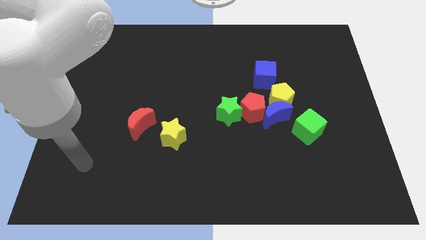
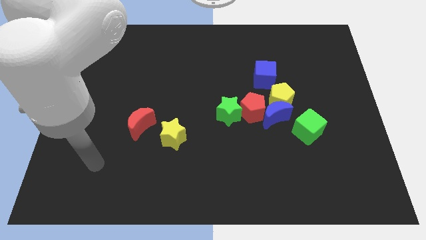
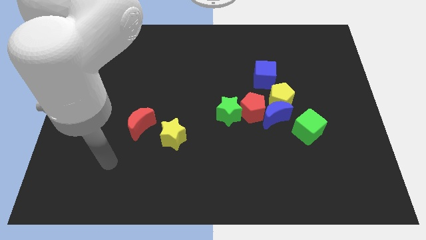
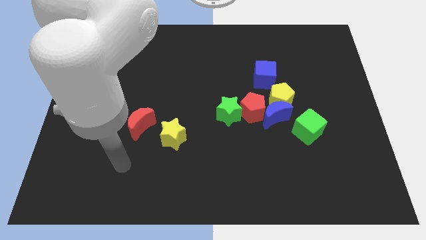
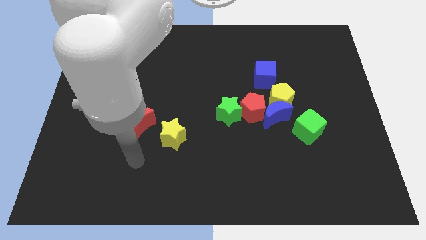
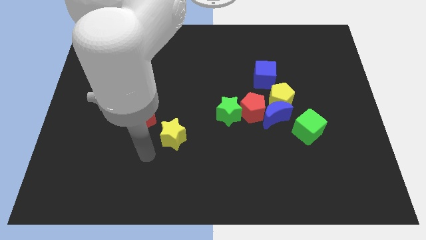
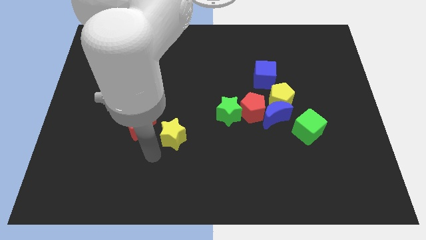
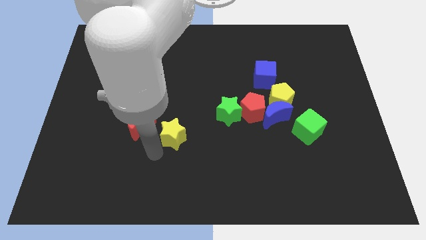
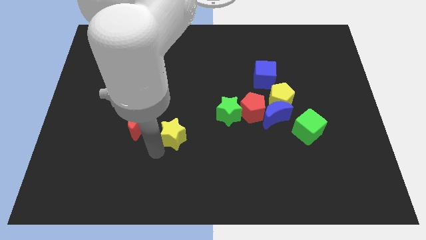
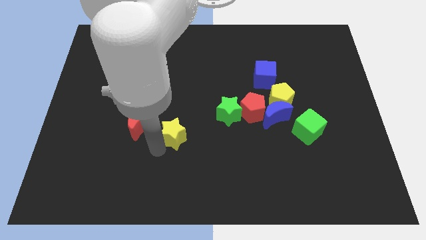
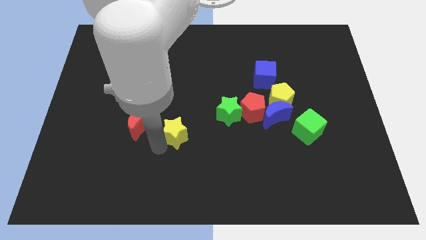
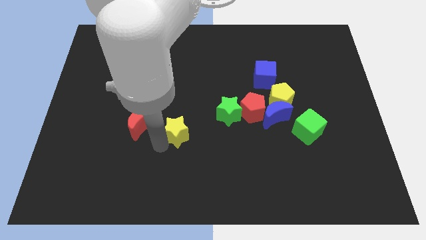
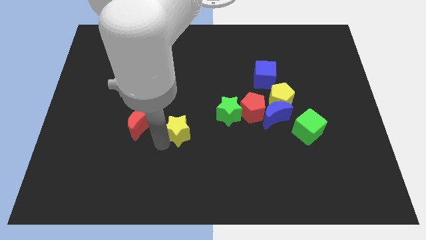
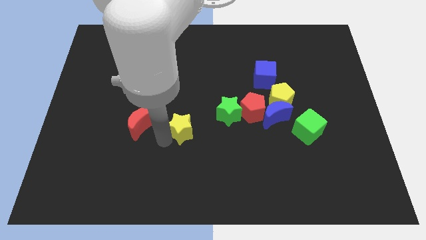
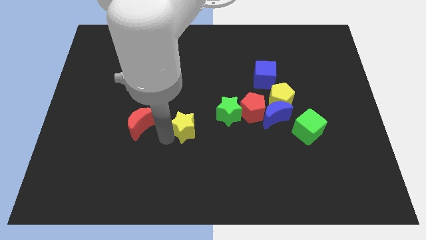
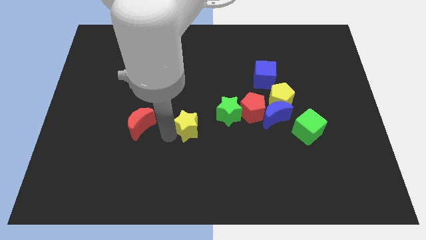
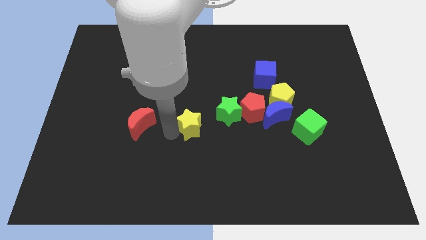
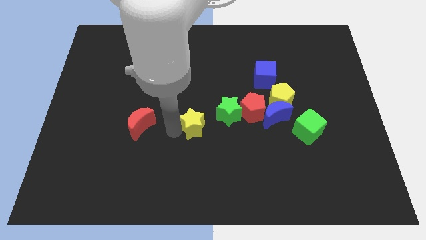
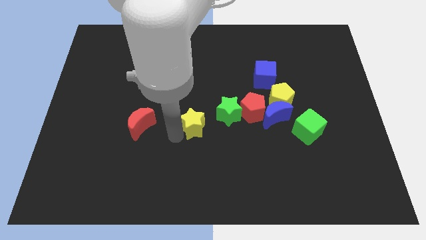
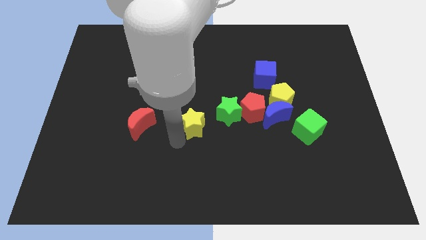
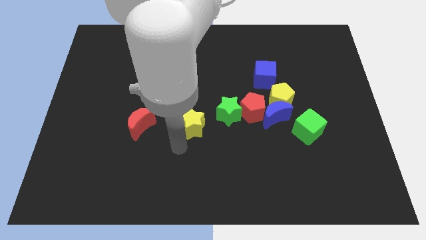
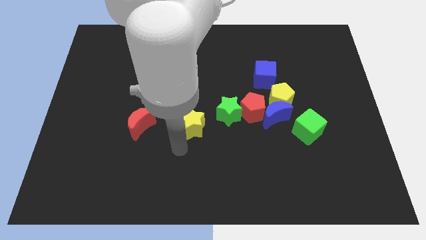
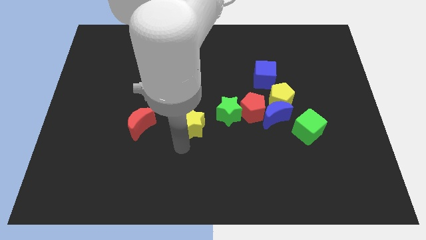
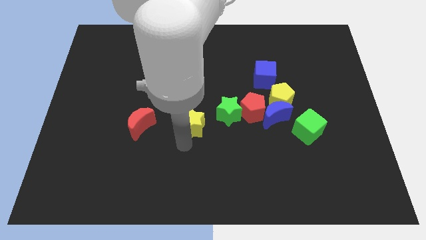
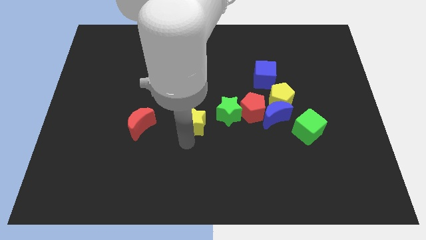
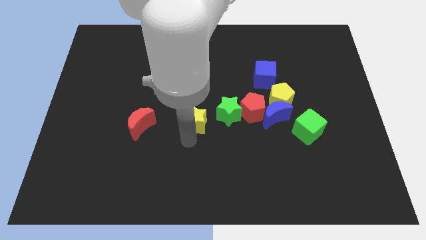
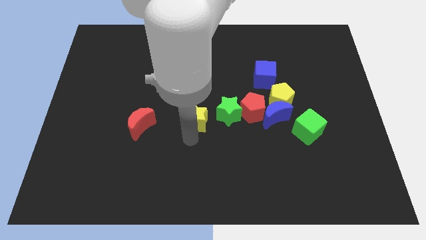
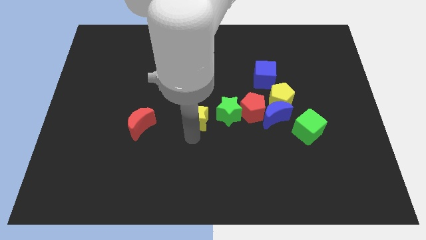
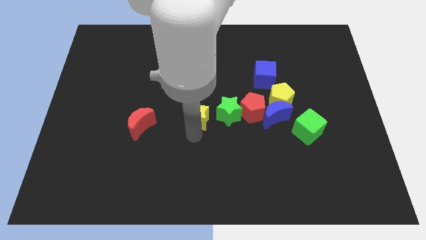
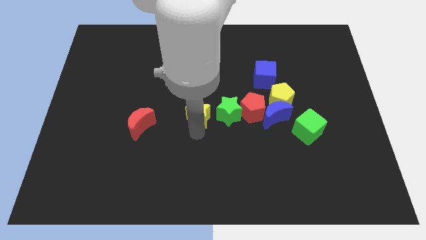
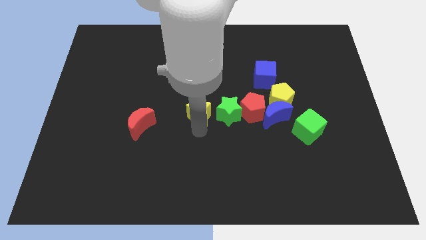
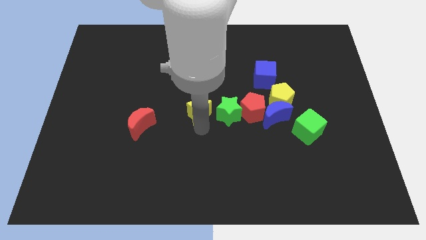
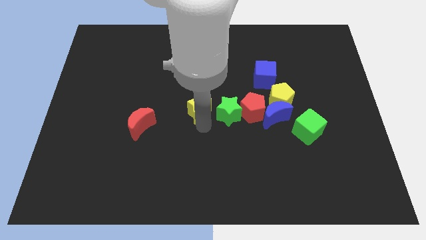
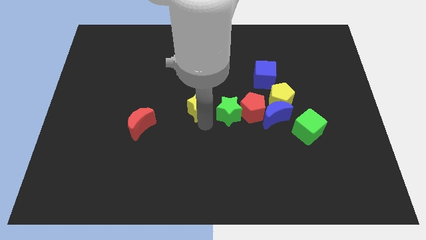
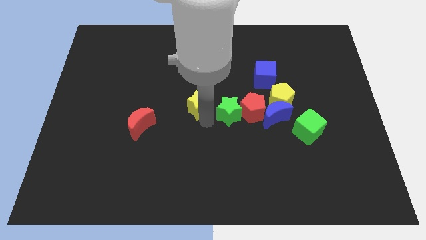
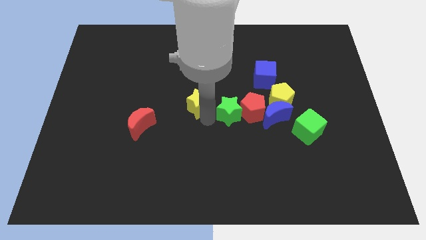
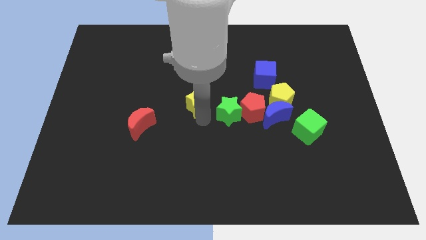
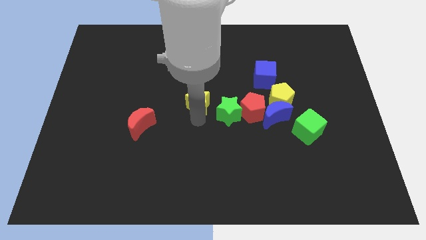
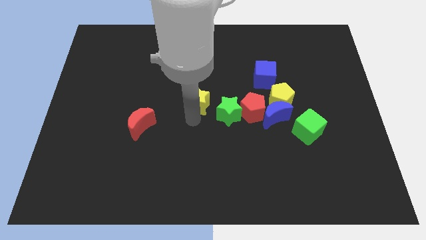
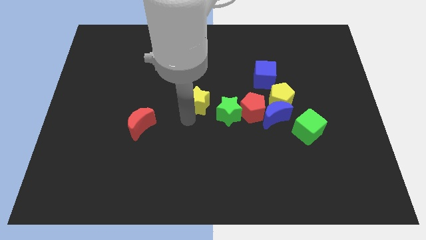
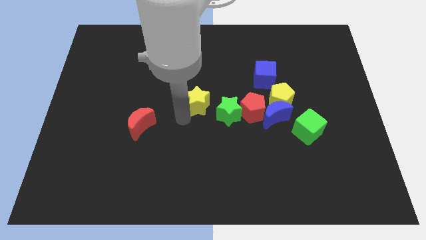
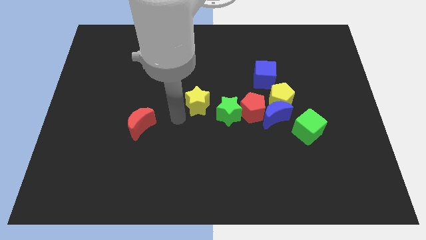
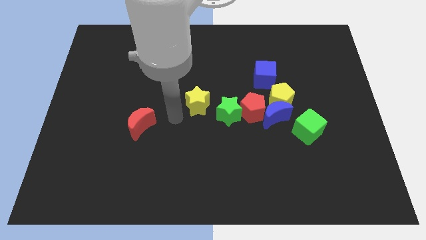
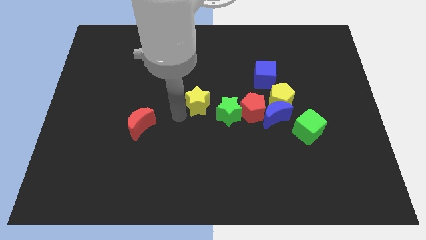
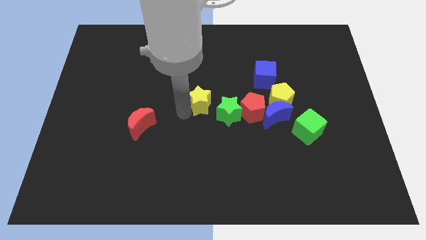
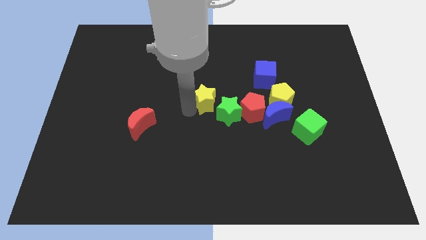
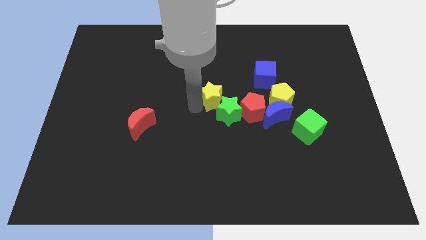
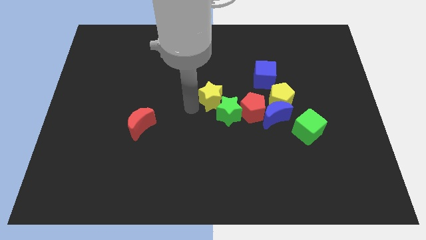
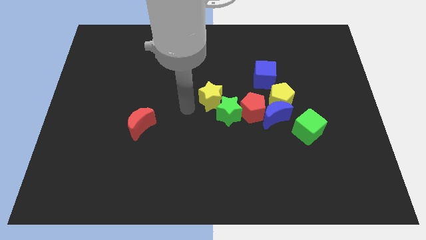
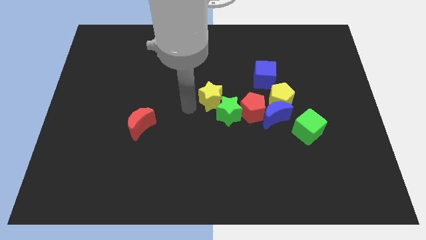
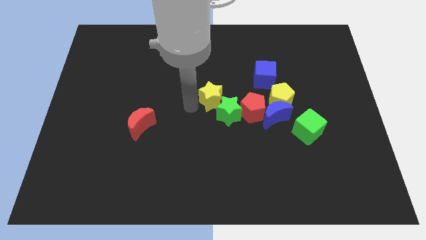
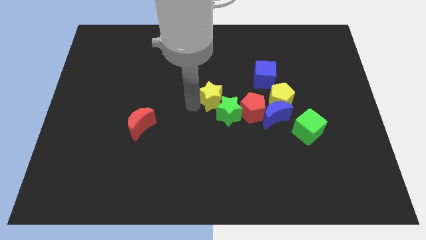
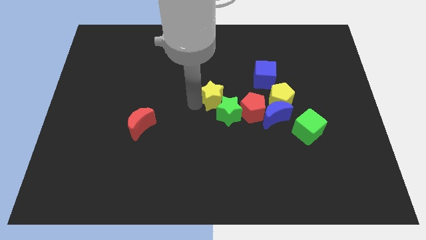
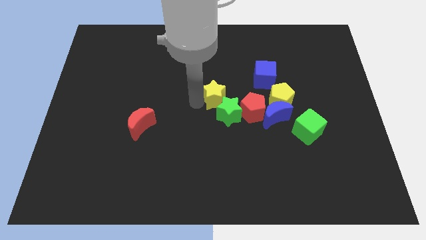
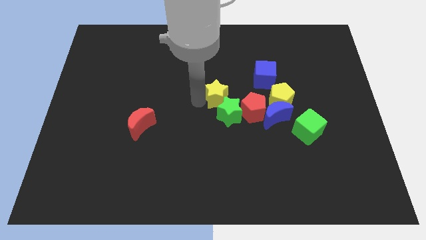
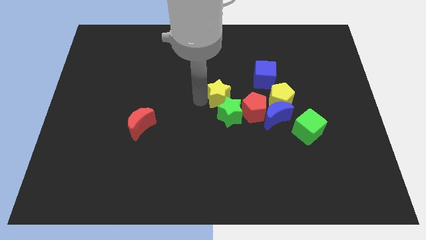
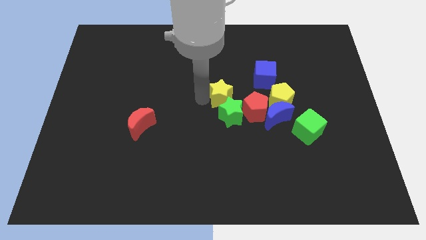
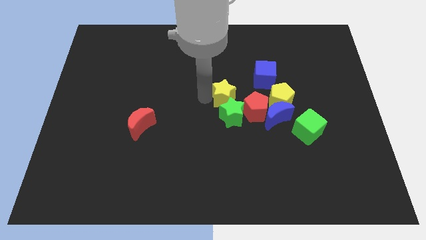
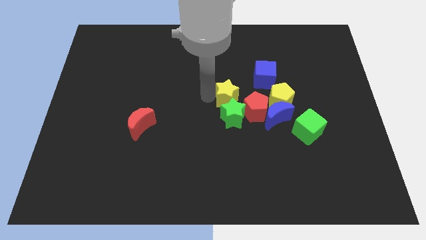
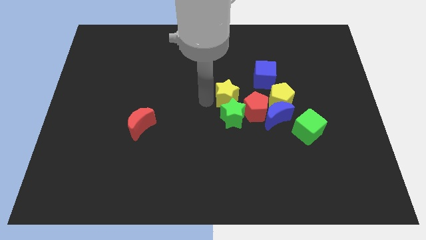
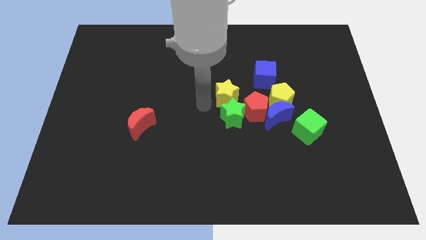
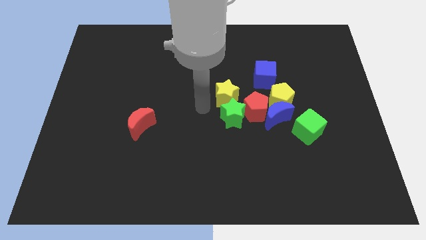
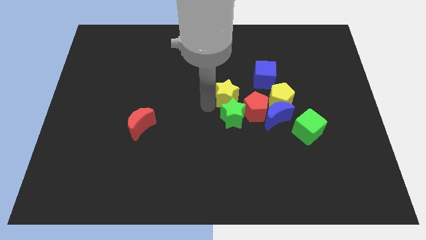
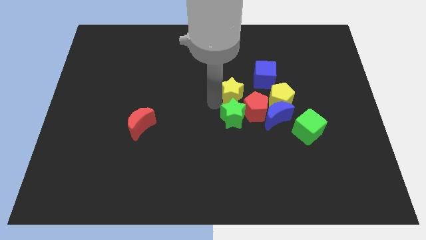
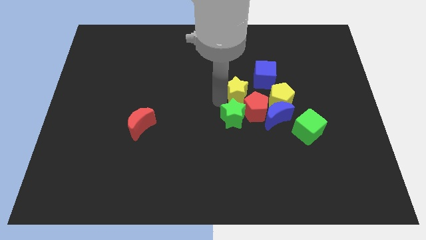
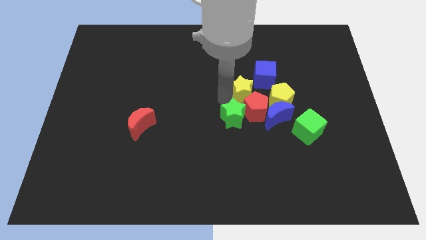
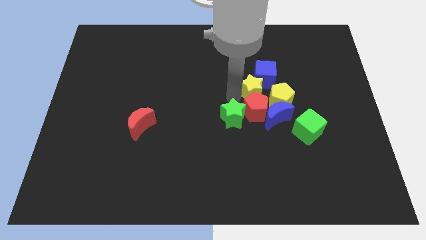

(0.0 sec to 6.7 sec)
put the yellow star next to the blue cube
